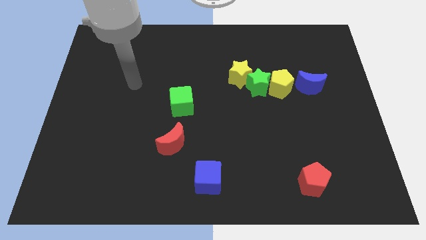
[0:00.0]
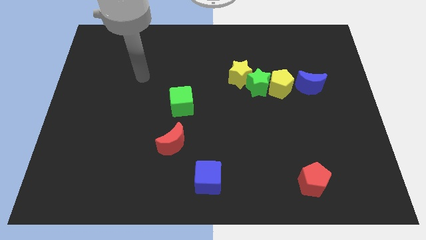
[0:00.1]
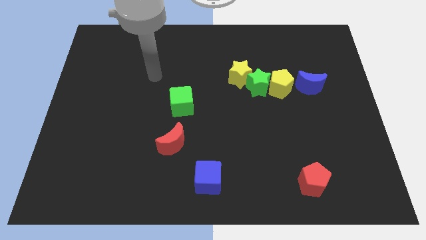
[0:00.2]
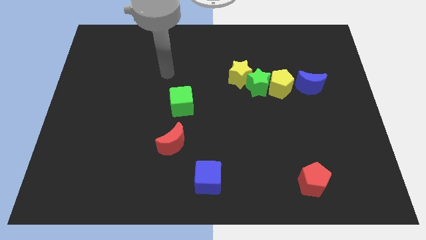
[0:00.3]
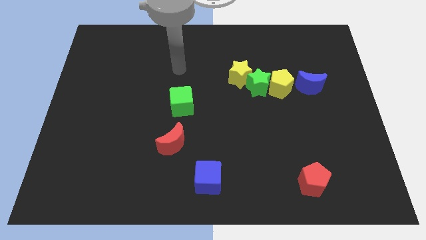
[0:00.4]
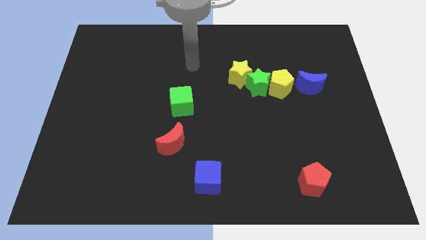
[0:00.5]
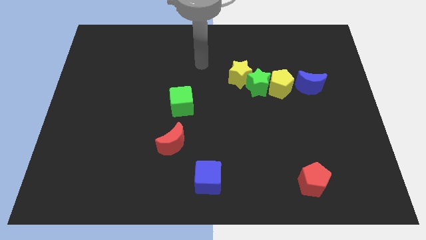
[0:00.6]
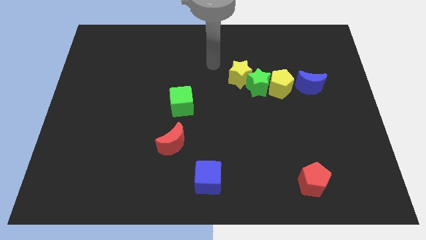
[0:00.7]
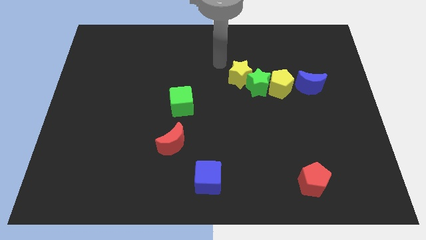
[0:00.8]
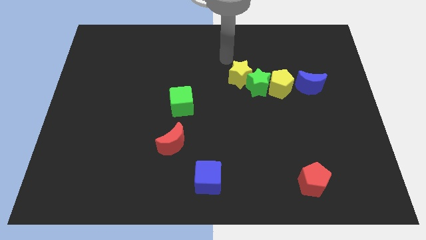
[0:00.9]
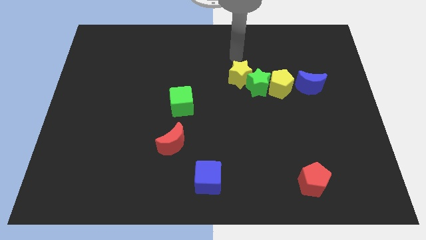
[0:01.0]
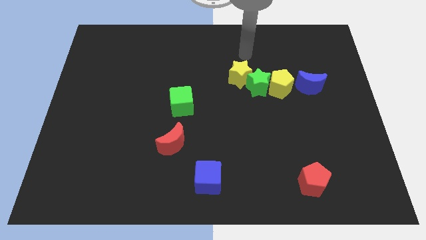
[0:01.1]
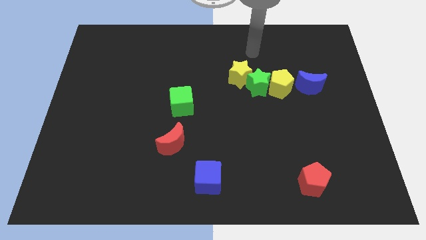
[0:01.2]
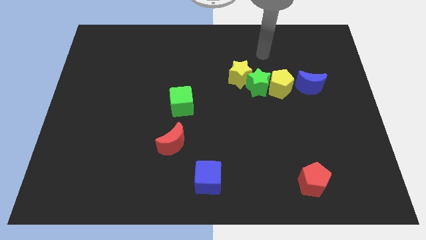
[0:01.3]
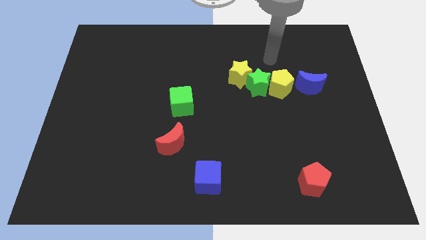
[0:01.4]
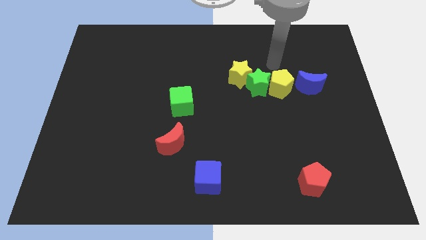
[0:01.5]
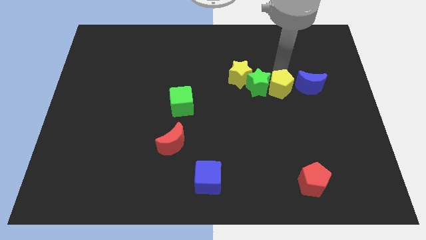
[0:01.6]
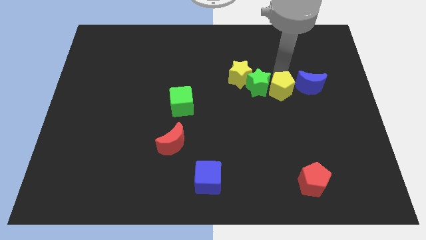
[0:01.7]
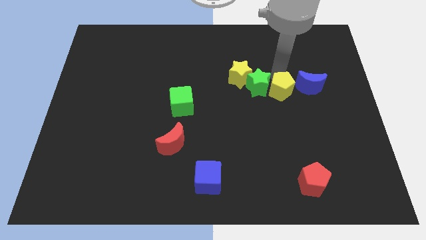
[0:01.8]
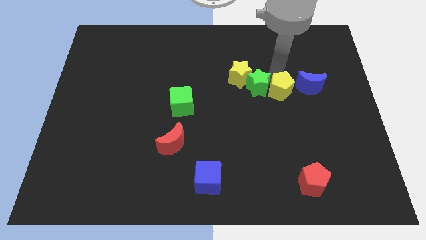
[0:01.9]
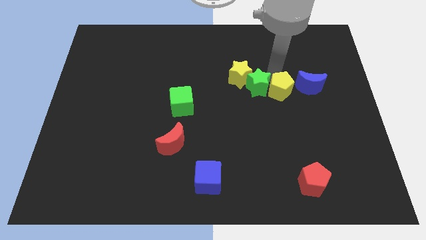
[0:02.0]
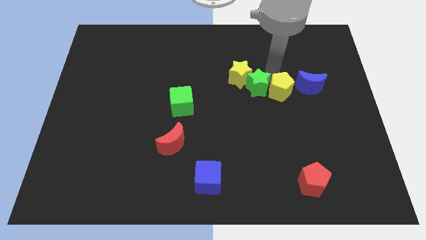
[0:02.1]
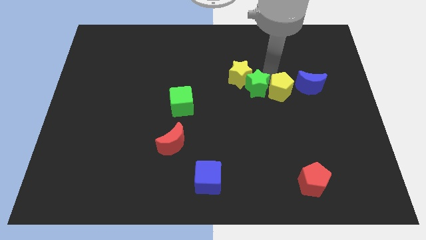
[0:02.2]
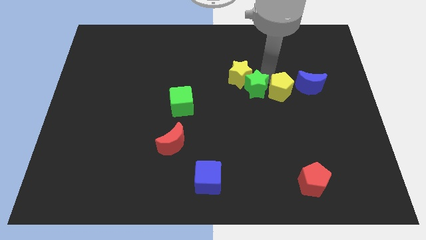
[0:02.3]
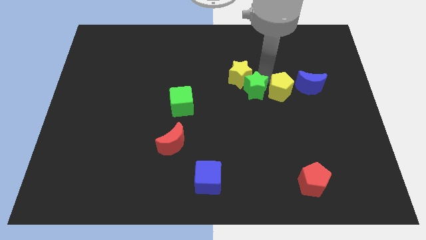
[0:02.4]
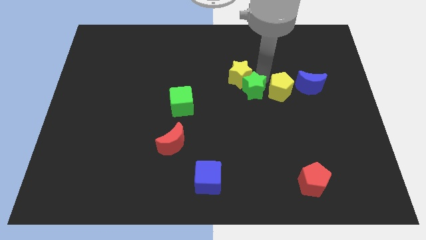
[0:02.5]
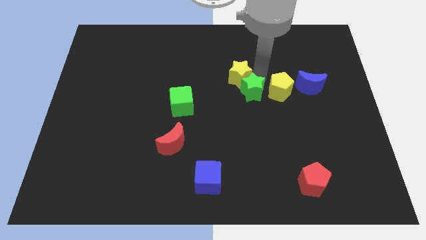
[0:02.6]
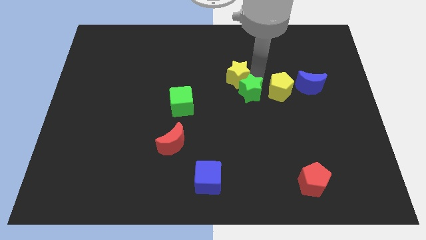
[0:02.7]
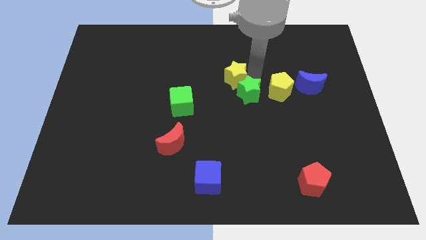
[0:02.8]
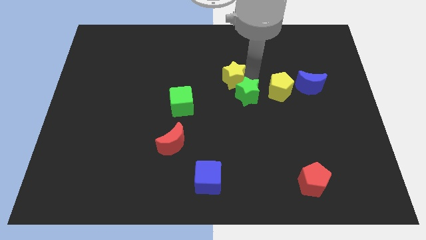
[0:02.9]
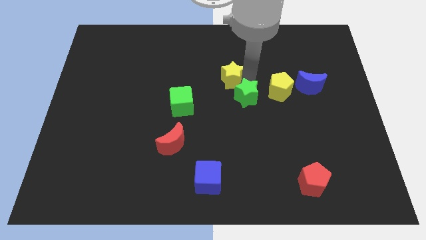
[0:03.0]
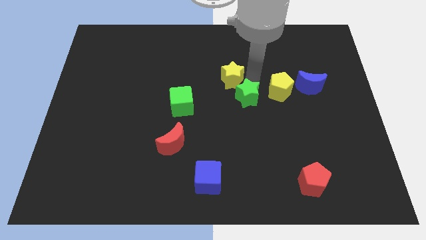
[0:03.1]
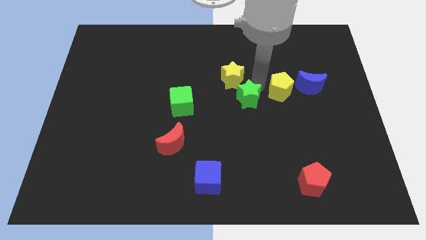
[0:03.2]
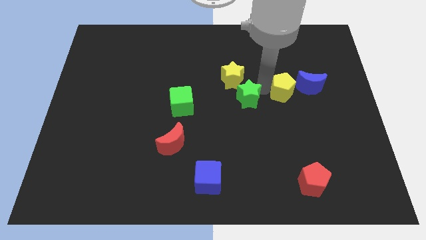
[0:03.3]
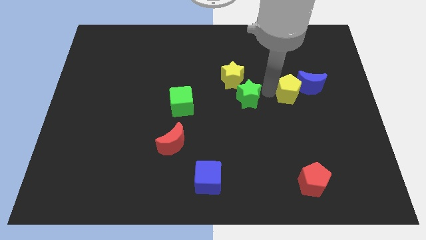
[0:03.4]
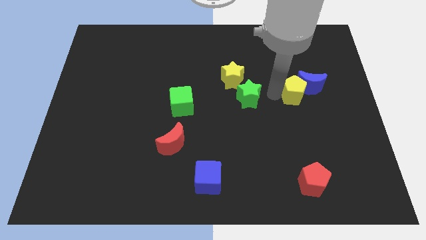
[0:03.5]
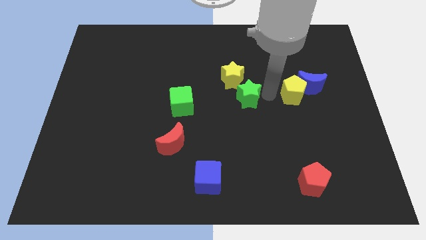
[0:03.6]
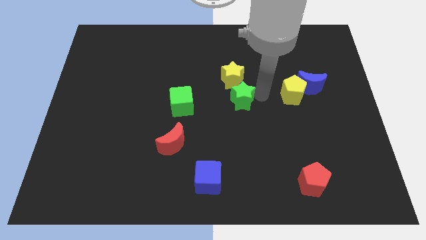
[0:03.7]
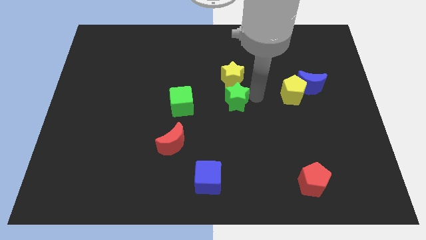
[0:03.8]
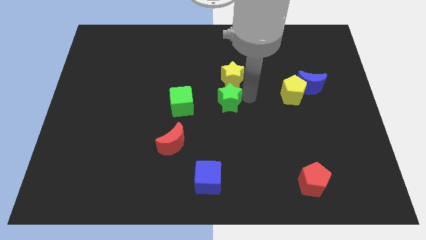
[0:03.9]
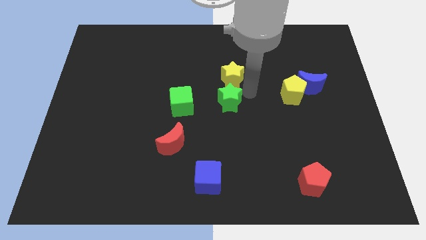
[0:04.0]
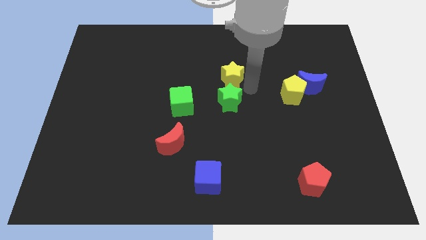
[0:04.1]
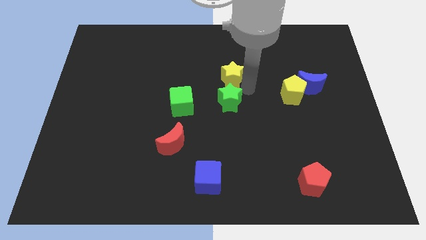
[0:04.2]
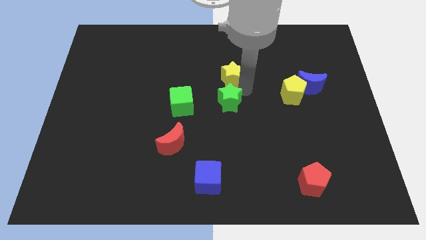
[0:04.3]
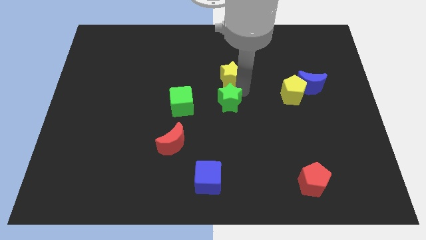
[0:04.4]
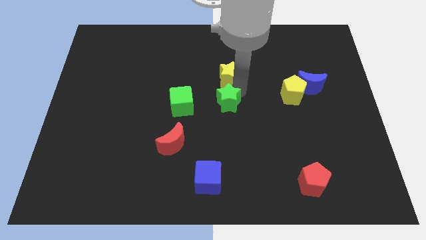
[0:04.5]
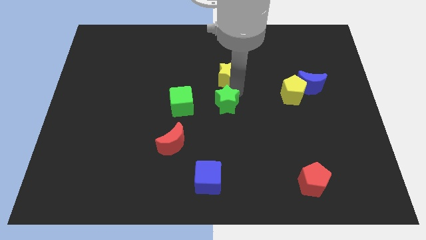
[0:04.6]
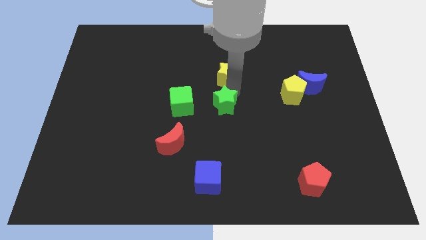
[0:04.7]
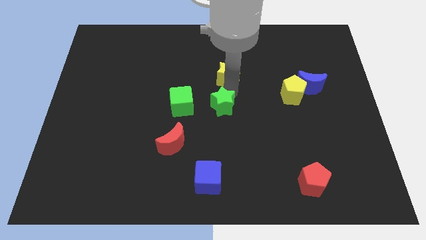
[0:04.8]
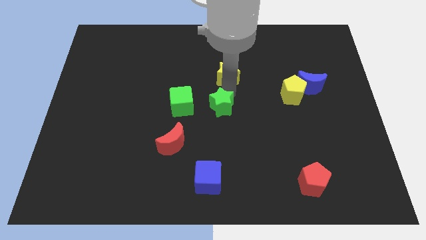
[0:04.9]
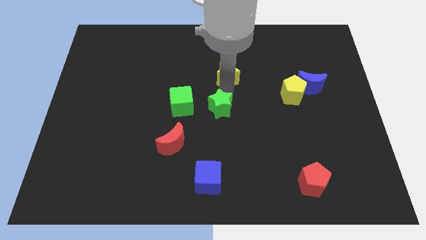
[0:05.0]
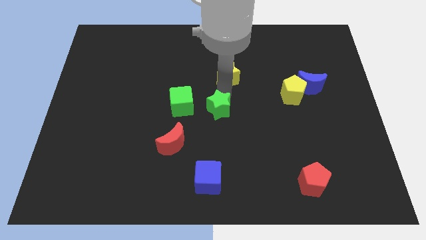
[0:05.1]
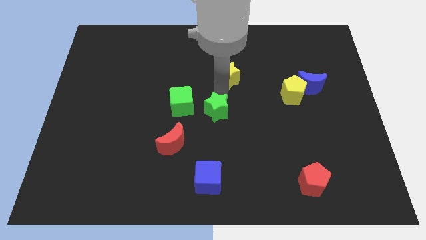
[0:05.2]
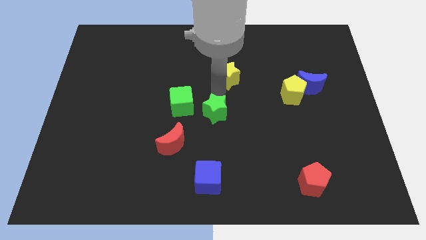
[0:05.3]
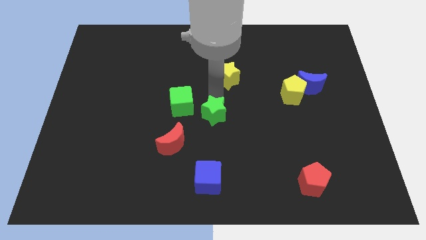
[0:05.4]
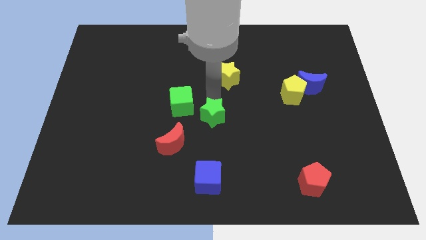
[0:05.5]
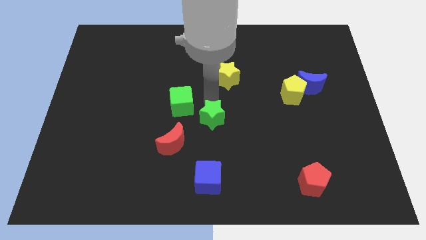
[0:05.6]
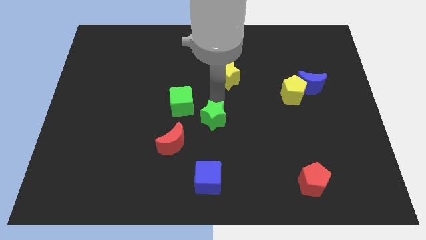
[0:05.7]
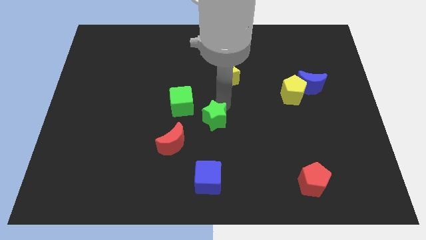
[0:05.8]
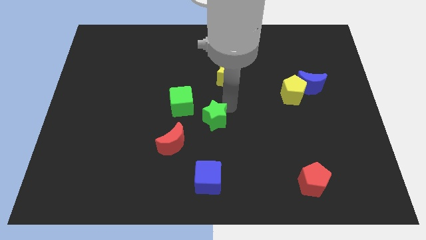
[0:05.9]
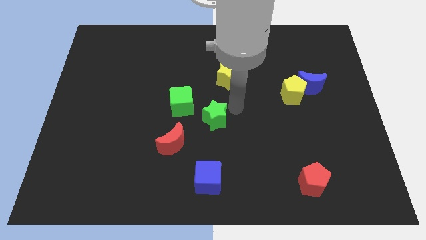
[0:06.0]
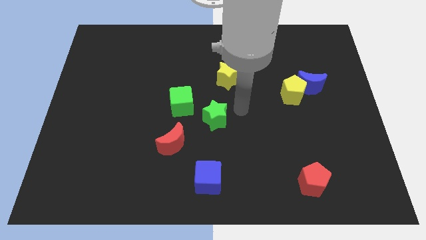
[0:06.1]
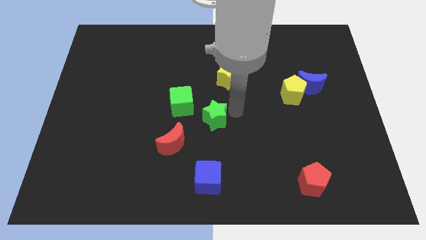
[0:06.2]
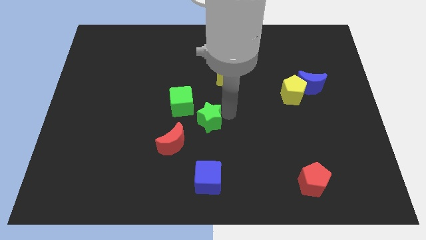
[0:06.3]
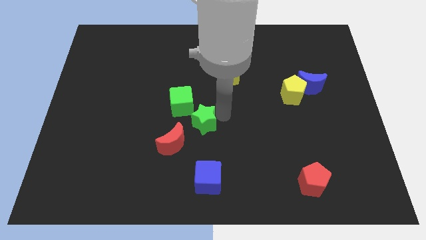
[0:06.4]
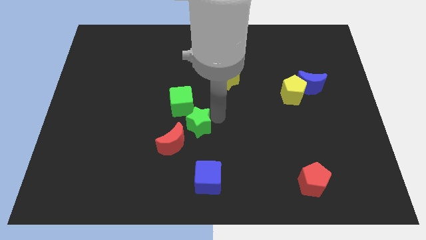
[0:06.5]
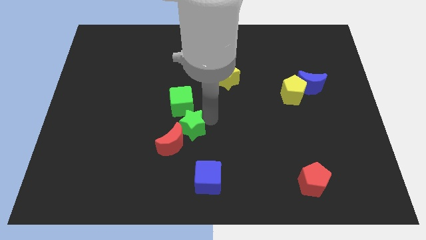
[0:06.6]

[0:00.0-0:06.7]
slide the green star to the red moon

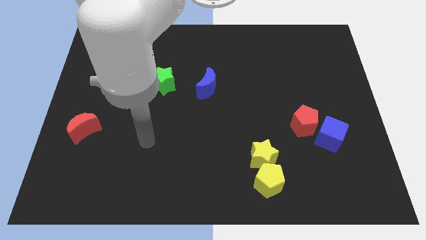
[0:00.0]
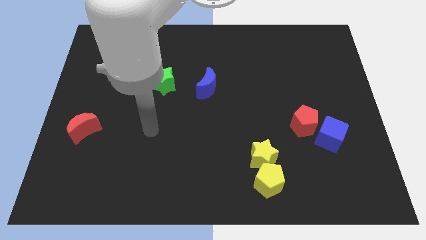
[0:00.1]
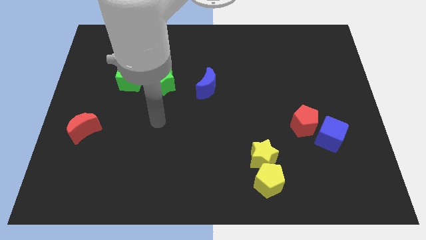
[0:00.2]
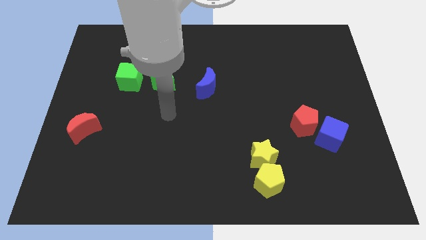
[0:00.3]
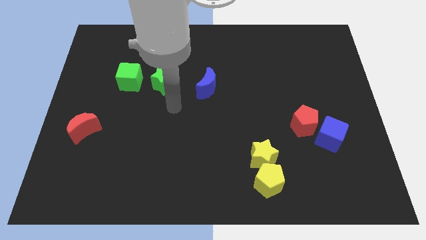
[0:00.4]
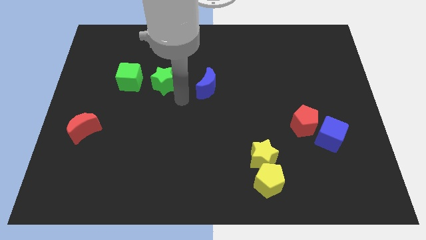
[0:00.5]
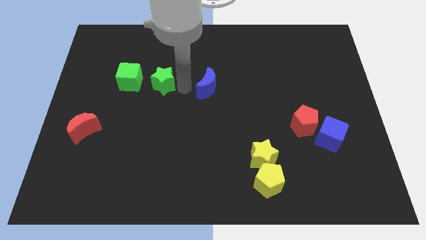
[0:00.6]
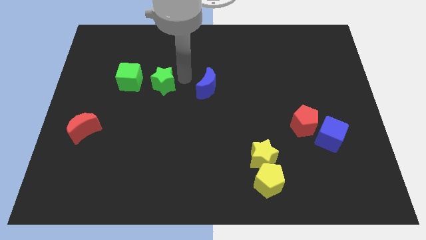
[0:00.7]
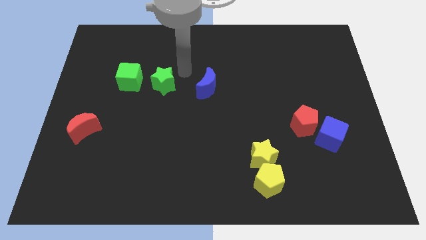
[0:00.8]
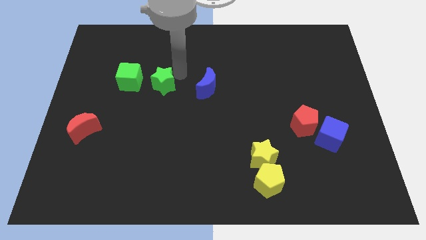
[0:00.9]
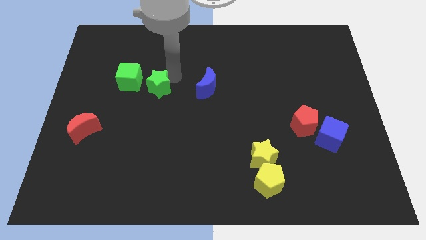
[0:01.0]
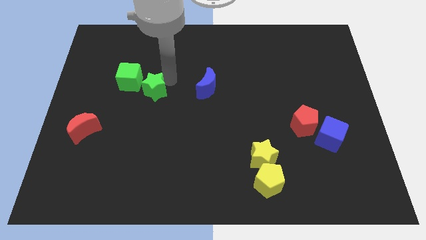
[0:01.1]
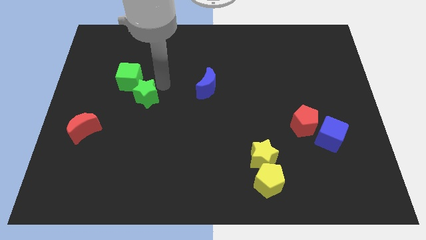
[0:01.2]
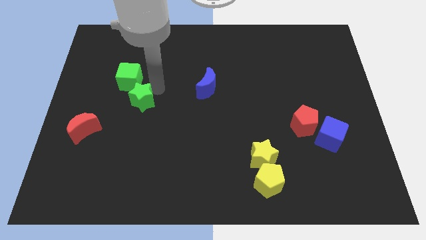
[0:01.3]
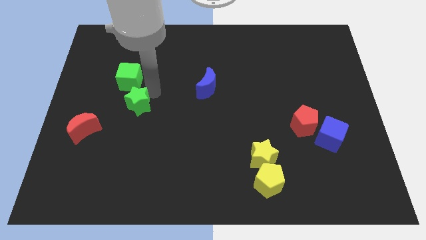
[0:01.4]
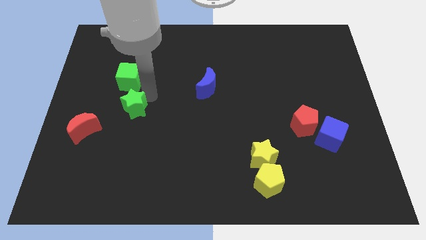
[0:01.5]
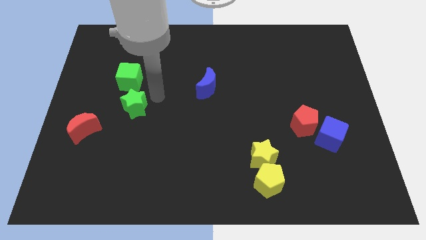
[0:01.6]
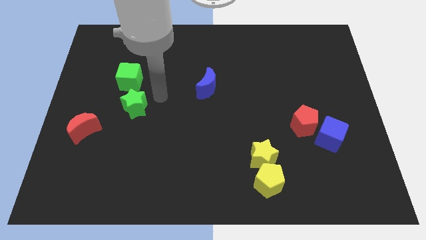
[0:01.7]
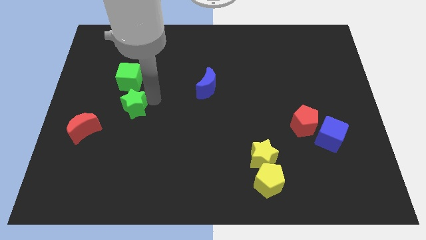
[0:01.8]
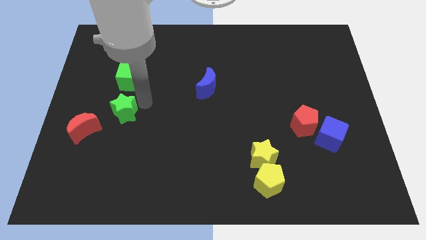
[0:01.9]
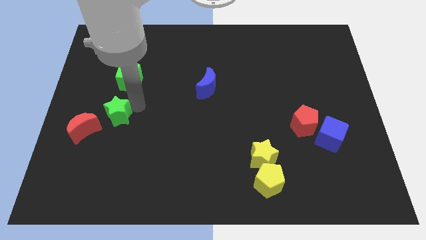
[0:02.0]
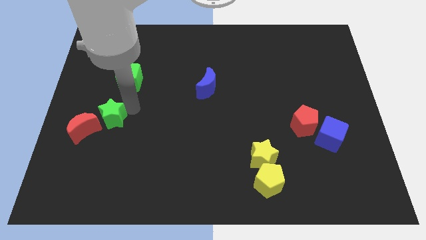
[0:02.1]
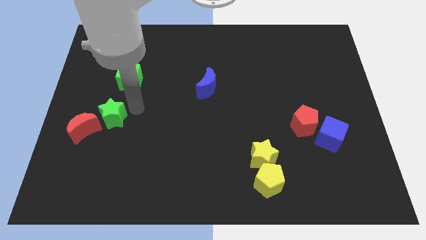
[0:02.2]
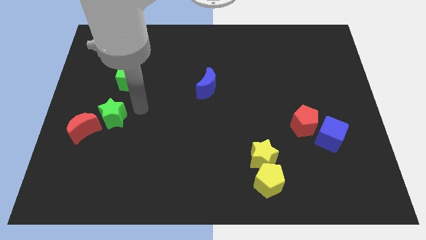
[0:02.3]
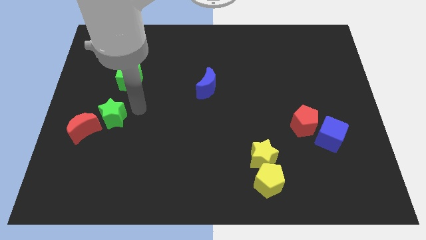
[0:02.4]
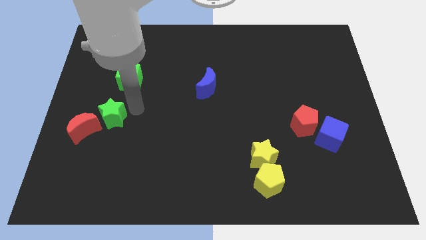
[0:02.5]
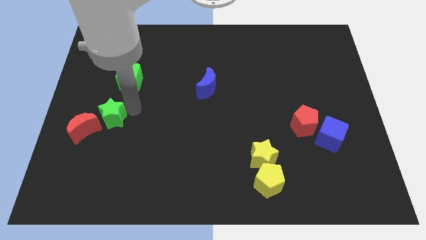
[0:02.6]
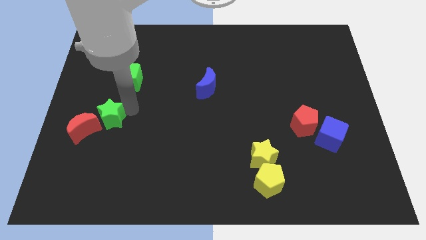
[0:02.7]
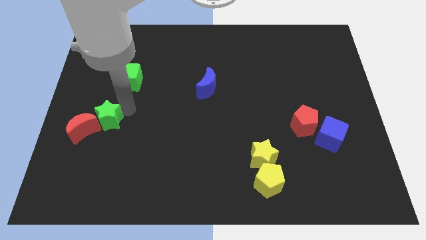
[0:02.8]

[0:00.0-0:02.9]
move the green star towards the red moon
